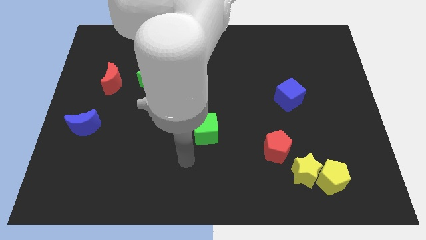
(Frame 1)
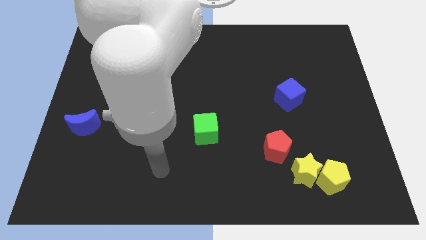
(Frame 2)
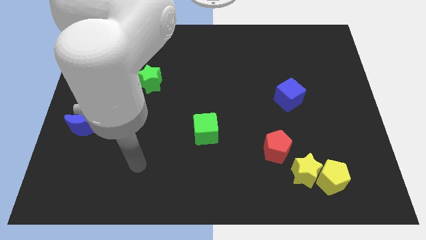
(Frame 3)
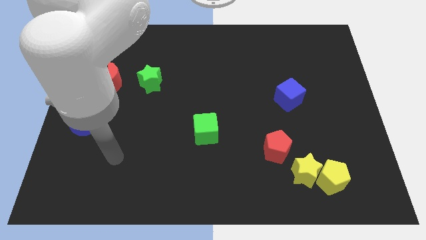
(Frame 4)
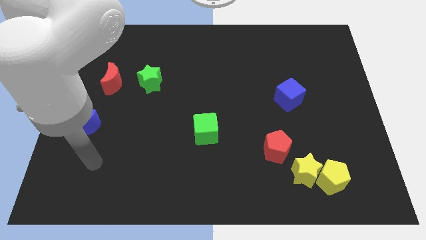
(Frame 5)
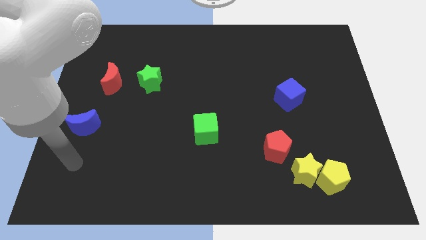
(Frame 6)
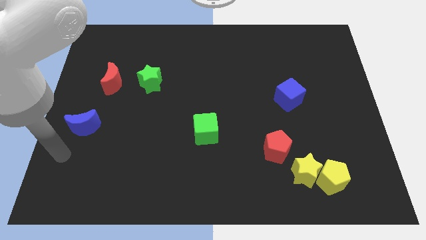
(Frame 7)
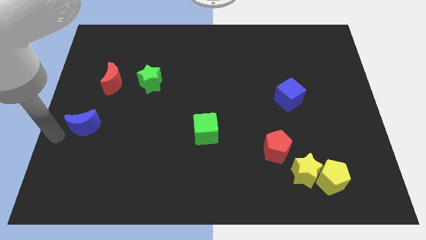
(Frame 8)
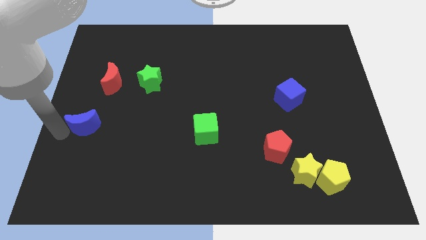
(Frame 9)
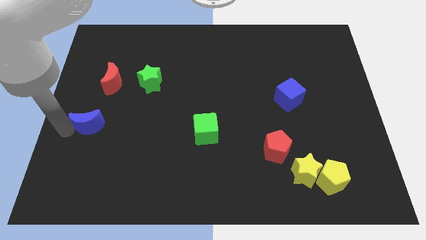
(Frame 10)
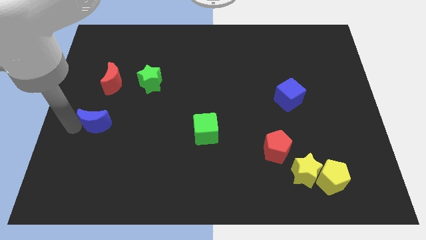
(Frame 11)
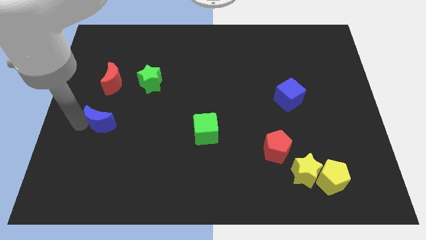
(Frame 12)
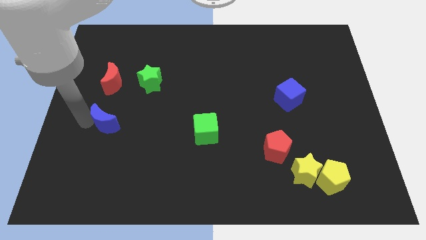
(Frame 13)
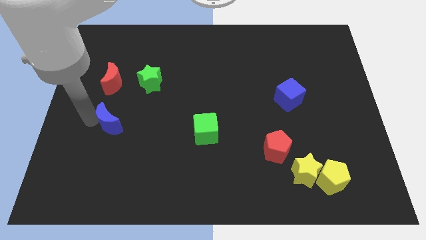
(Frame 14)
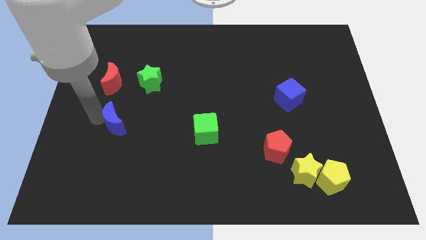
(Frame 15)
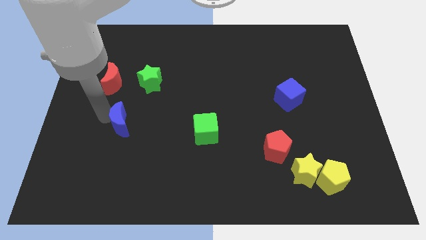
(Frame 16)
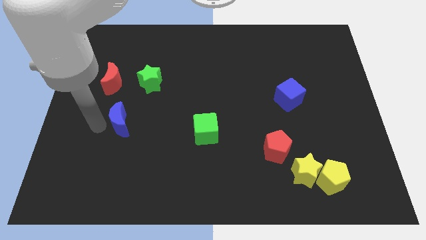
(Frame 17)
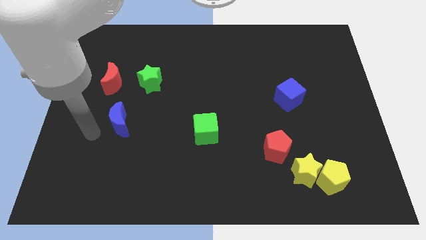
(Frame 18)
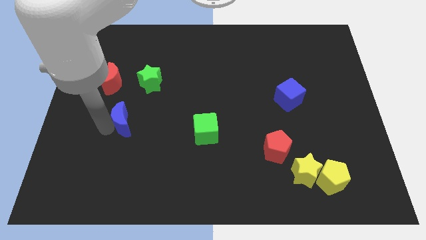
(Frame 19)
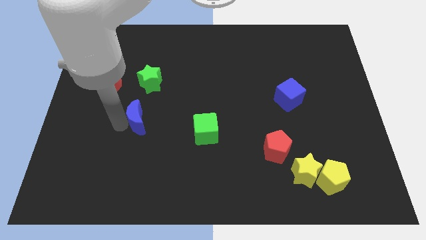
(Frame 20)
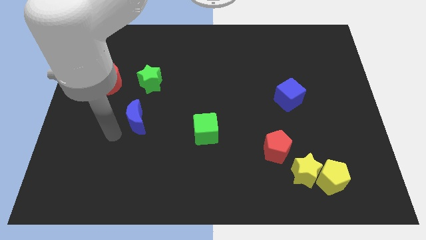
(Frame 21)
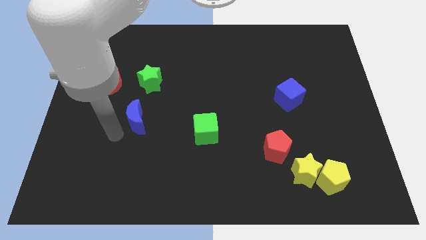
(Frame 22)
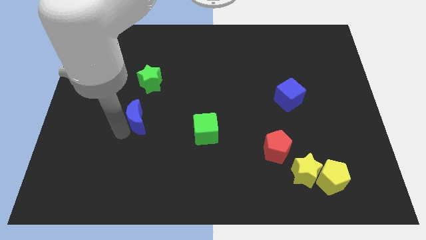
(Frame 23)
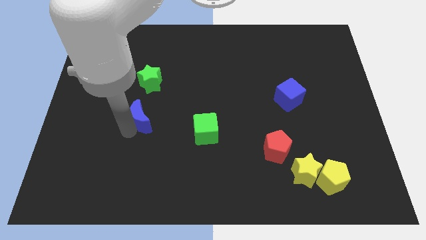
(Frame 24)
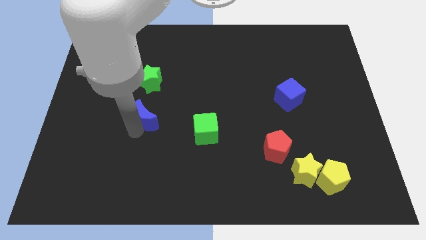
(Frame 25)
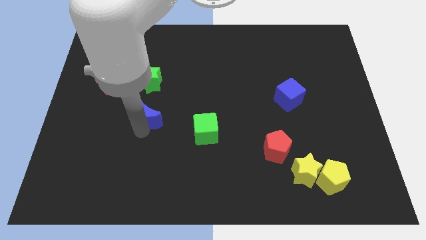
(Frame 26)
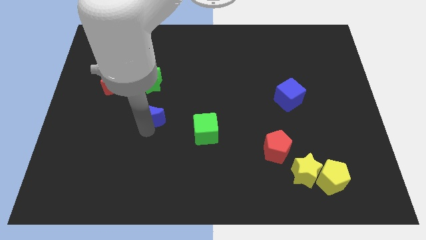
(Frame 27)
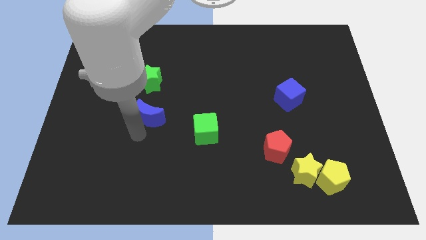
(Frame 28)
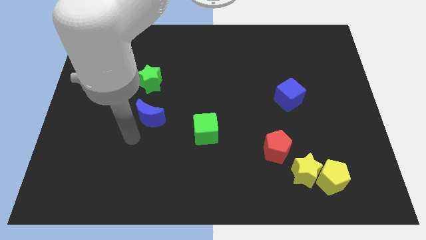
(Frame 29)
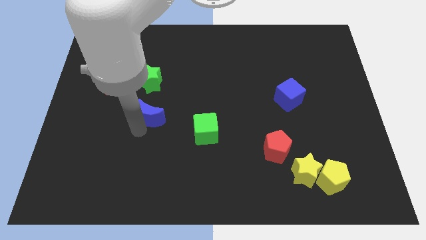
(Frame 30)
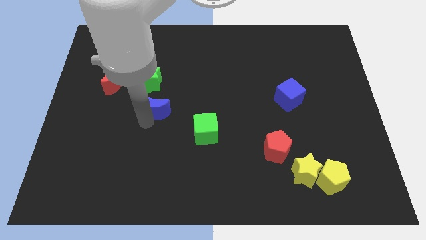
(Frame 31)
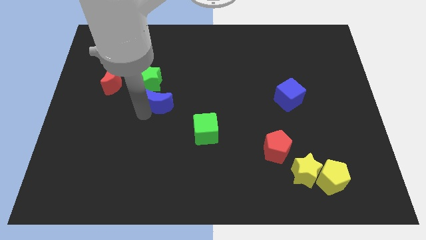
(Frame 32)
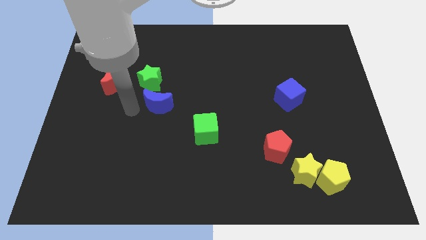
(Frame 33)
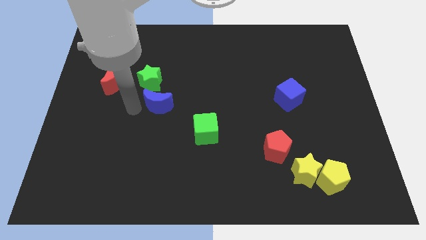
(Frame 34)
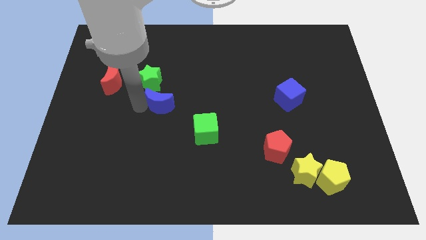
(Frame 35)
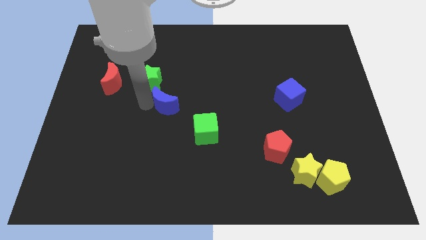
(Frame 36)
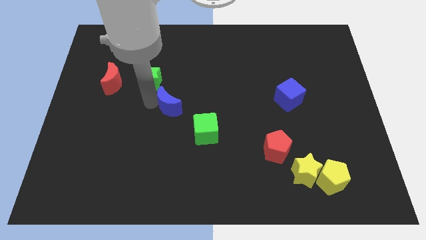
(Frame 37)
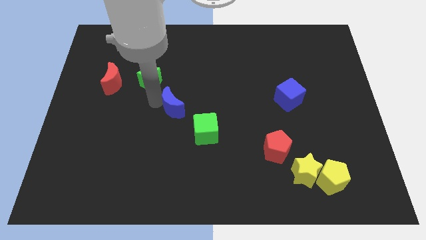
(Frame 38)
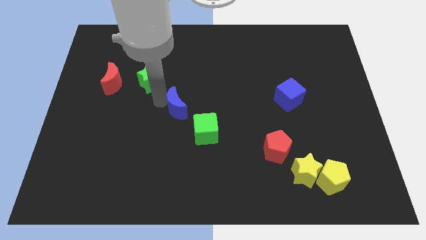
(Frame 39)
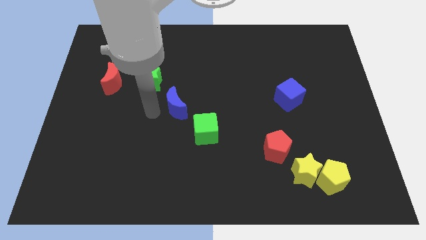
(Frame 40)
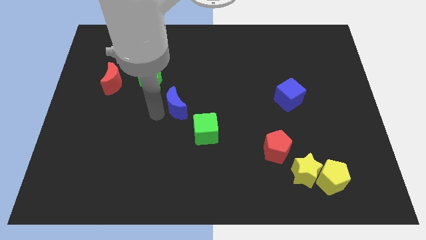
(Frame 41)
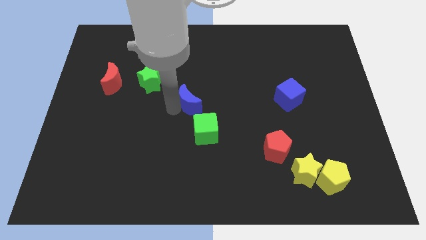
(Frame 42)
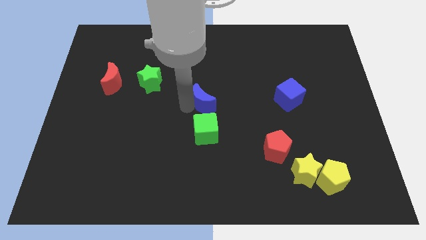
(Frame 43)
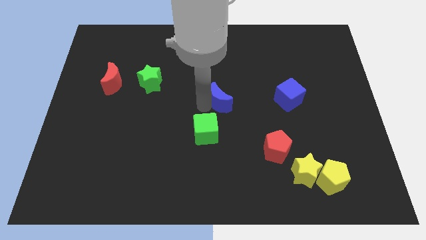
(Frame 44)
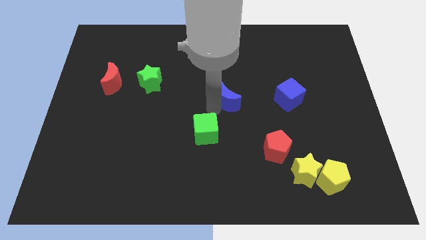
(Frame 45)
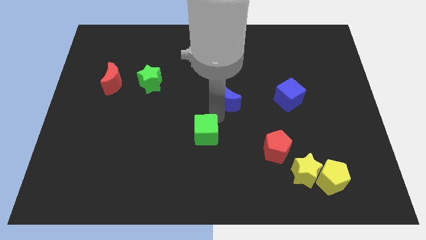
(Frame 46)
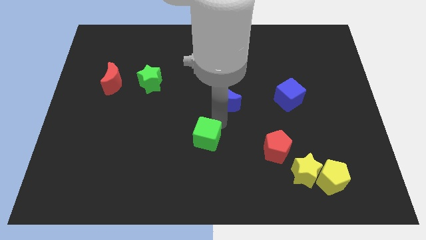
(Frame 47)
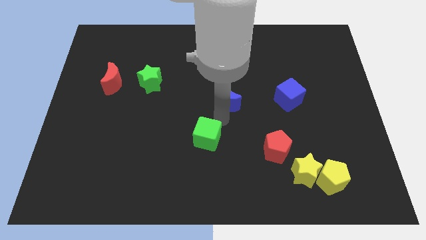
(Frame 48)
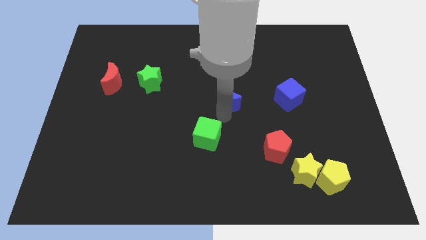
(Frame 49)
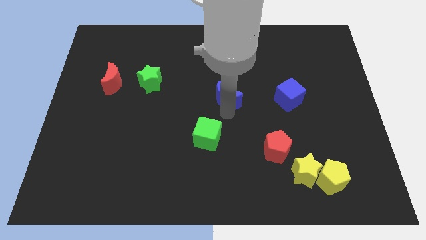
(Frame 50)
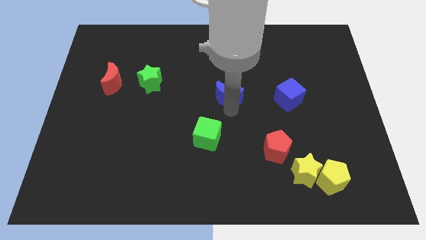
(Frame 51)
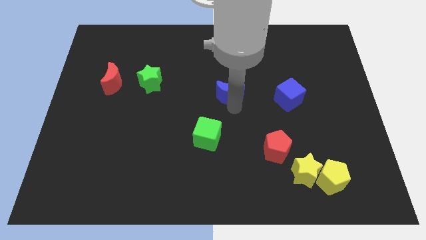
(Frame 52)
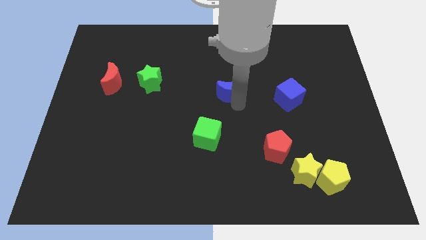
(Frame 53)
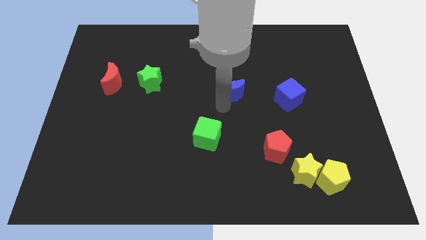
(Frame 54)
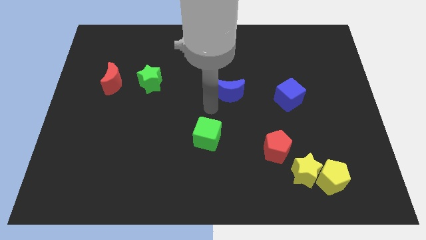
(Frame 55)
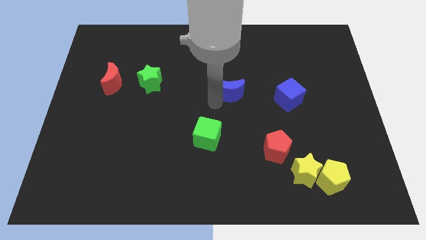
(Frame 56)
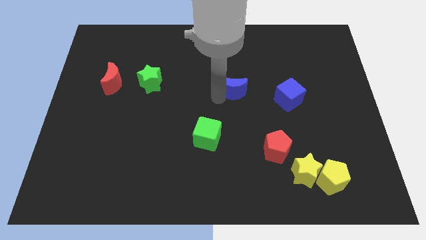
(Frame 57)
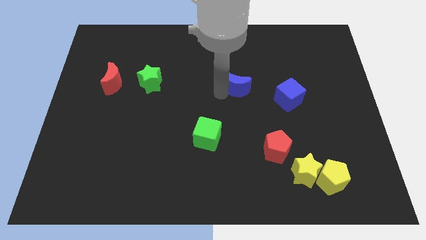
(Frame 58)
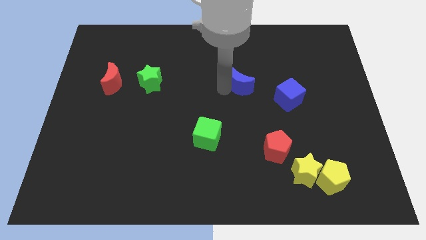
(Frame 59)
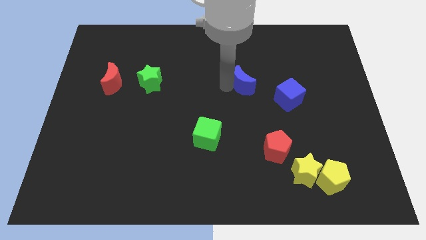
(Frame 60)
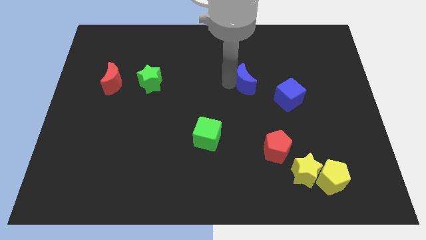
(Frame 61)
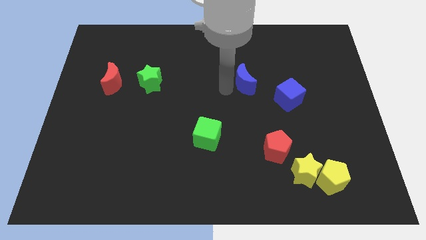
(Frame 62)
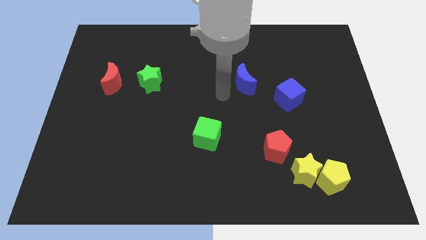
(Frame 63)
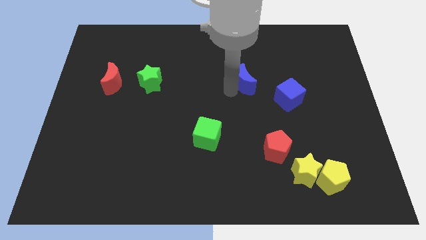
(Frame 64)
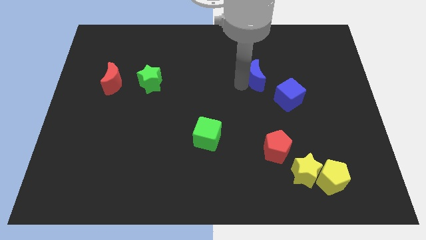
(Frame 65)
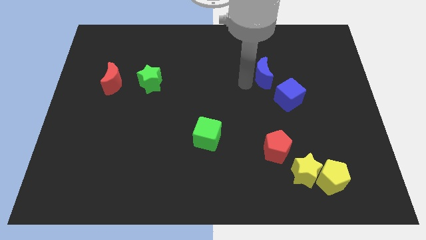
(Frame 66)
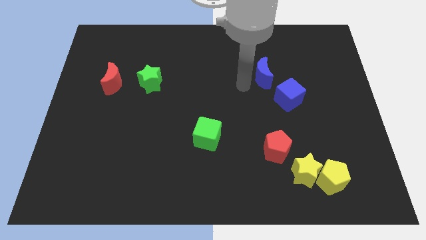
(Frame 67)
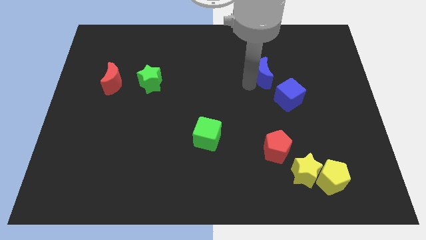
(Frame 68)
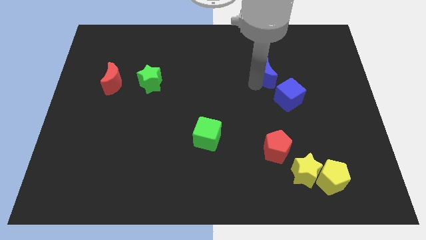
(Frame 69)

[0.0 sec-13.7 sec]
push the blue moon to the top side of the blue cube
